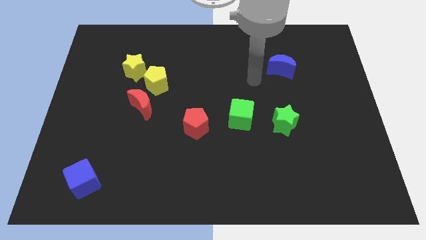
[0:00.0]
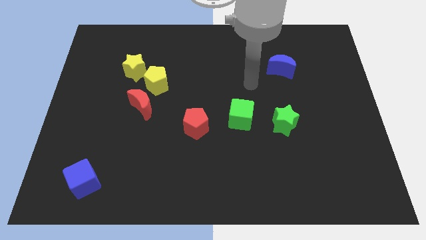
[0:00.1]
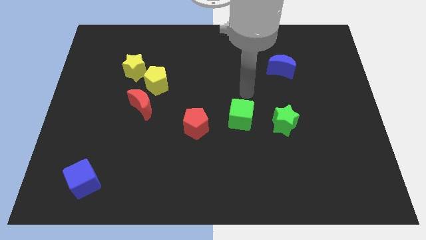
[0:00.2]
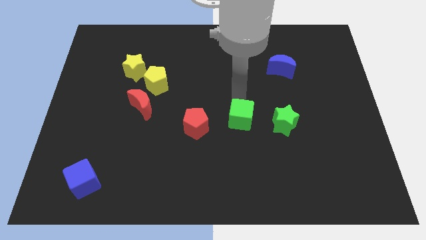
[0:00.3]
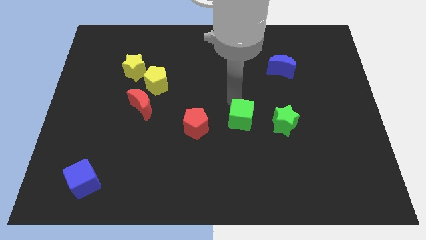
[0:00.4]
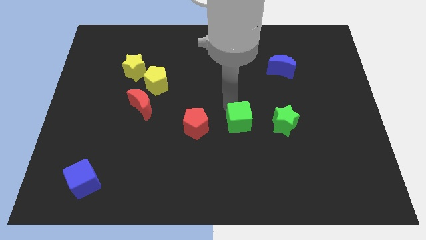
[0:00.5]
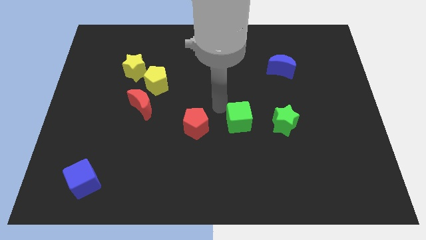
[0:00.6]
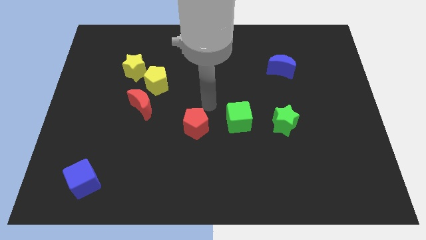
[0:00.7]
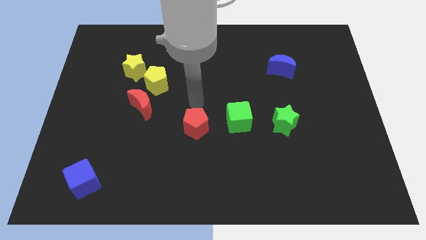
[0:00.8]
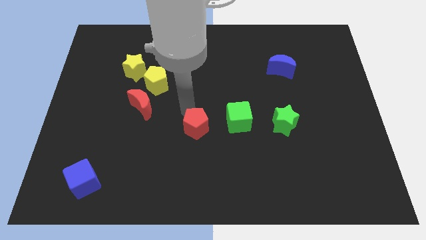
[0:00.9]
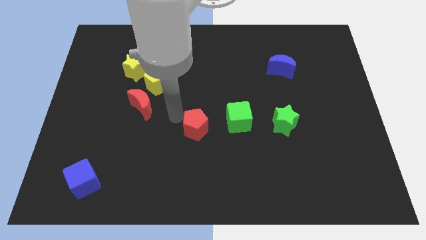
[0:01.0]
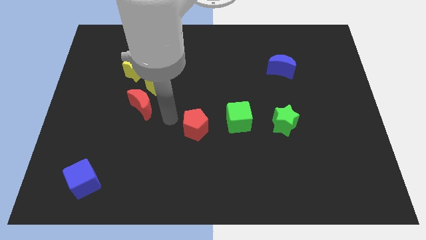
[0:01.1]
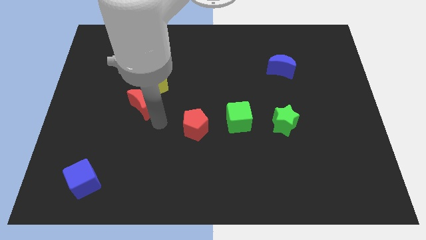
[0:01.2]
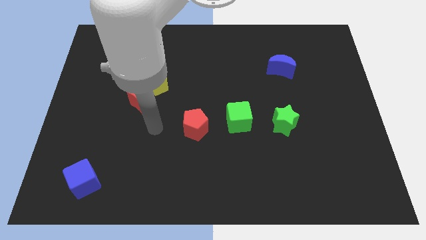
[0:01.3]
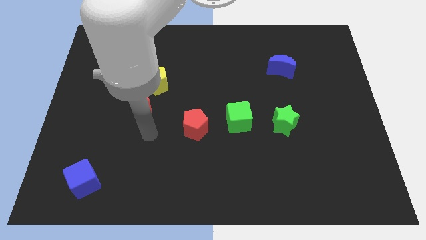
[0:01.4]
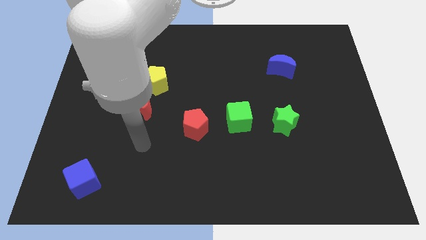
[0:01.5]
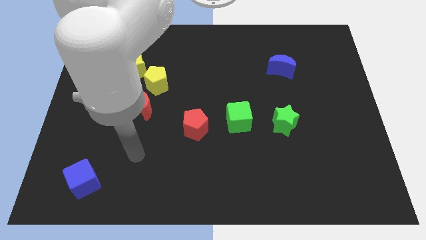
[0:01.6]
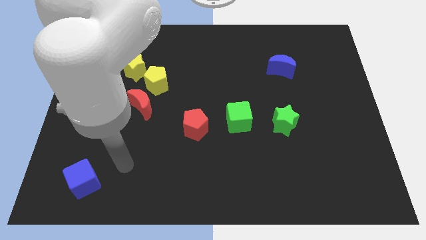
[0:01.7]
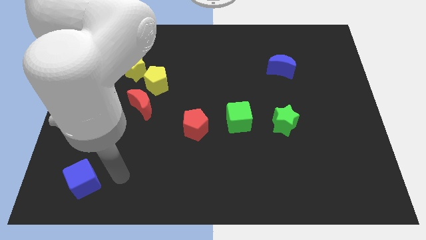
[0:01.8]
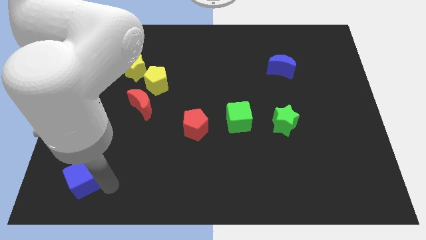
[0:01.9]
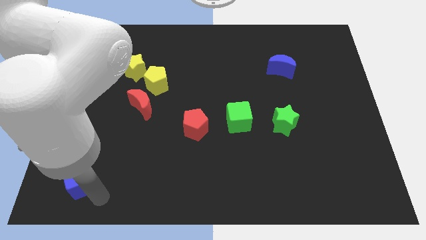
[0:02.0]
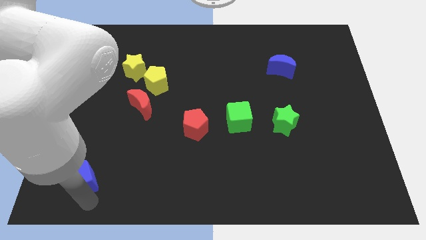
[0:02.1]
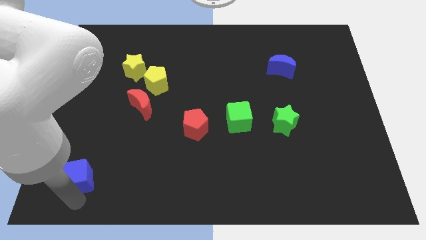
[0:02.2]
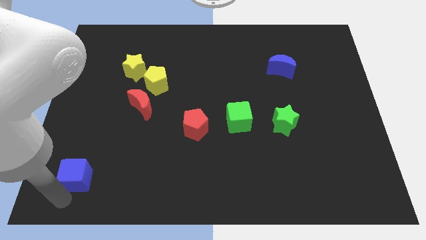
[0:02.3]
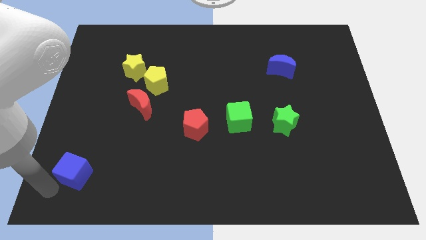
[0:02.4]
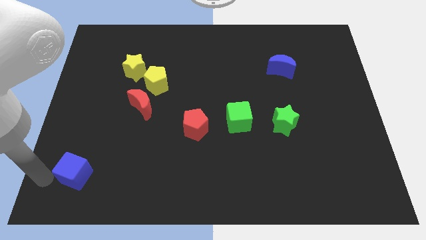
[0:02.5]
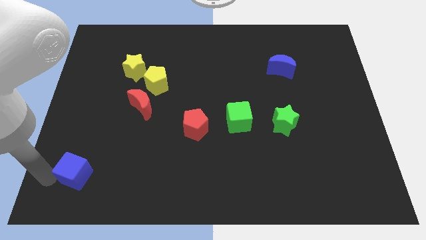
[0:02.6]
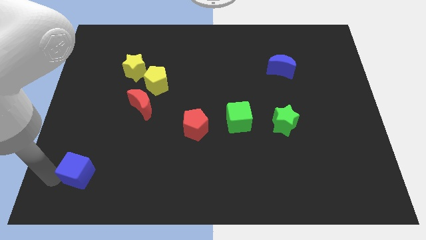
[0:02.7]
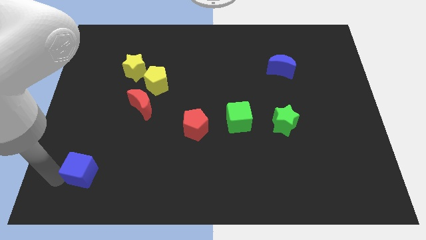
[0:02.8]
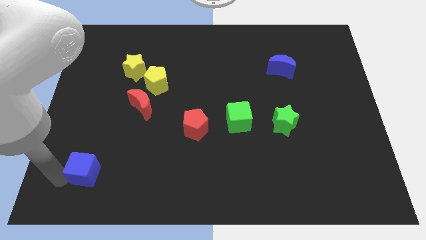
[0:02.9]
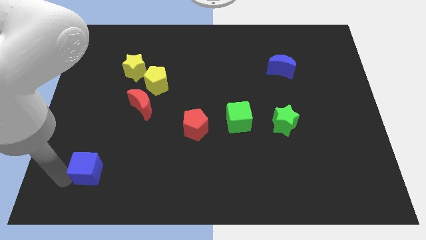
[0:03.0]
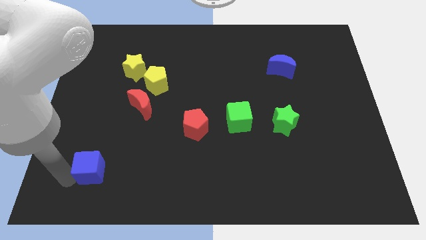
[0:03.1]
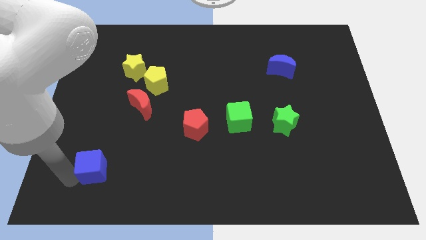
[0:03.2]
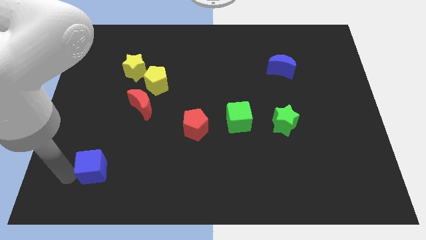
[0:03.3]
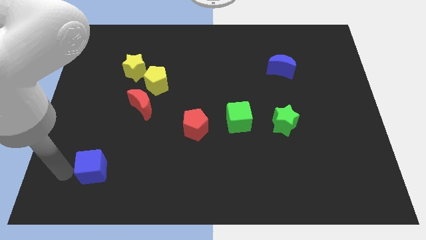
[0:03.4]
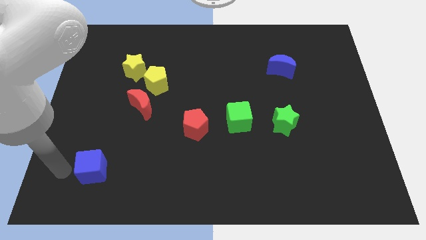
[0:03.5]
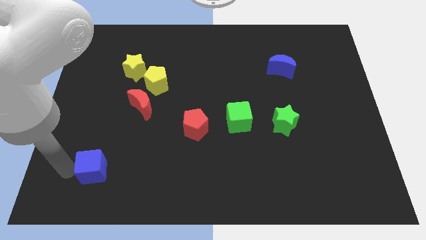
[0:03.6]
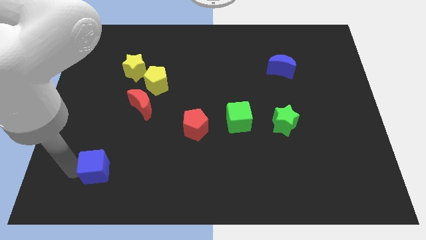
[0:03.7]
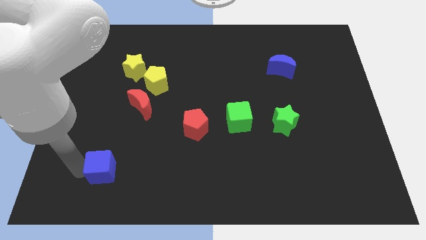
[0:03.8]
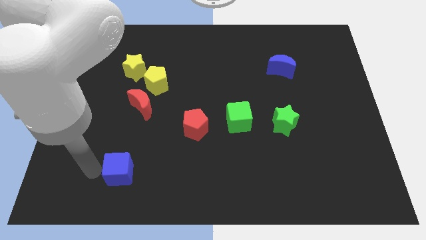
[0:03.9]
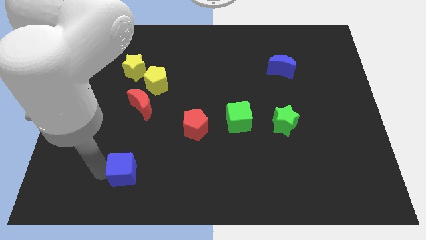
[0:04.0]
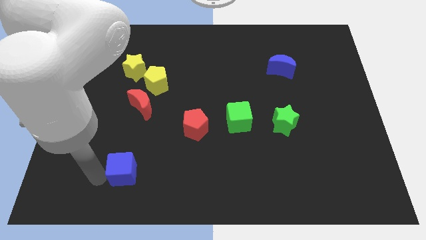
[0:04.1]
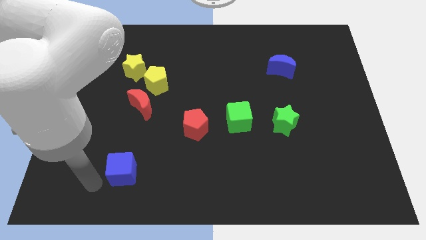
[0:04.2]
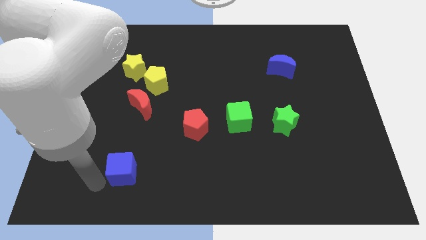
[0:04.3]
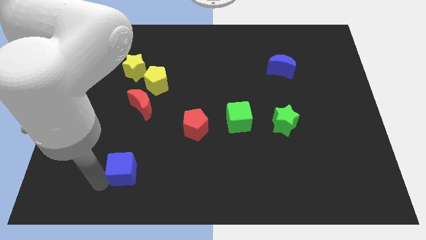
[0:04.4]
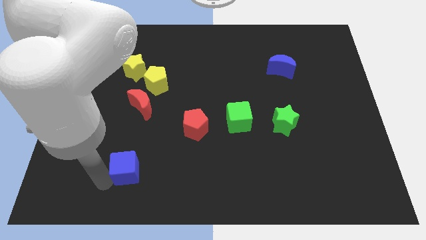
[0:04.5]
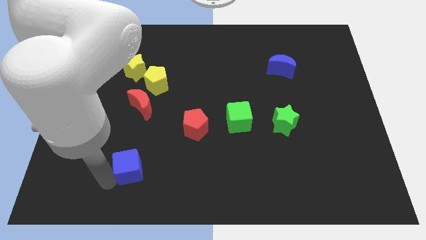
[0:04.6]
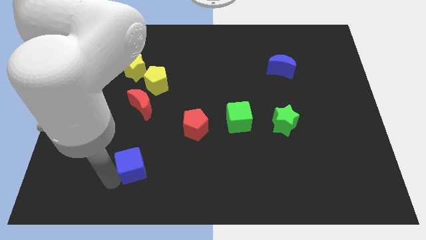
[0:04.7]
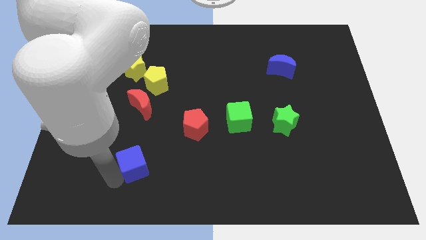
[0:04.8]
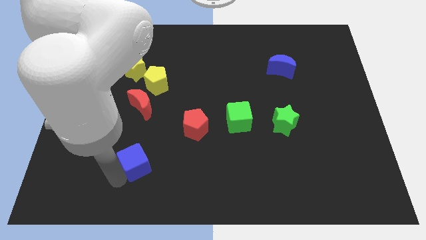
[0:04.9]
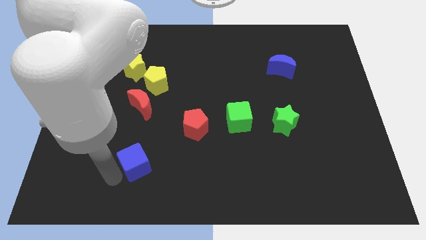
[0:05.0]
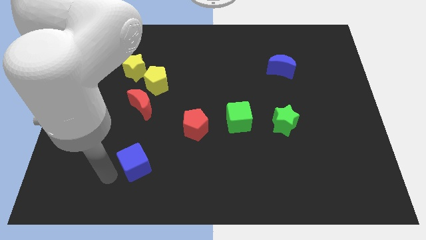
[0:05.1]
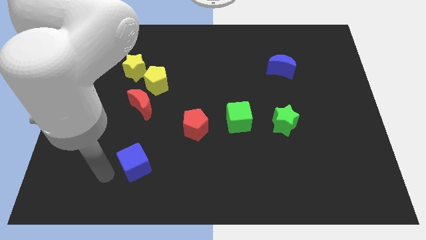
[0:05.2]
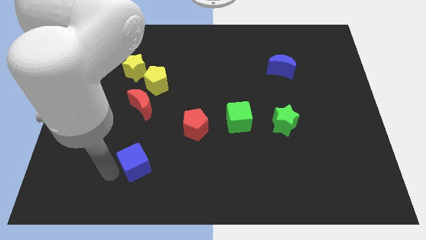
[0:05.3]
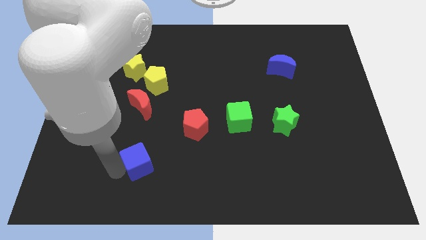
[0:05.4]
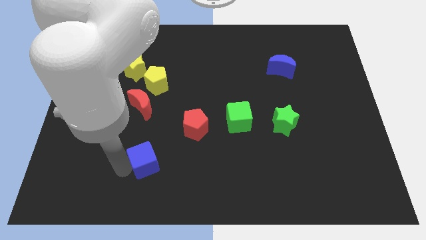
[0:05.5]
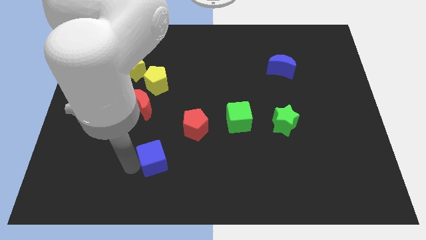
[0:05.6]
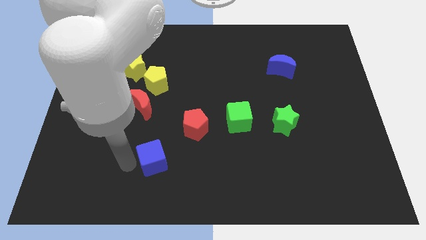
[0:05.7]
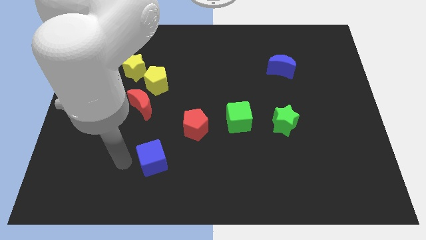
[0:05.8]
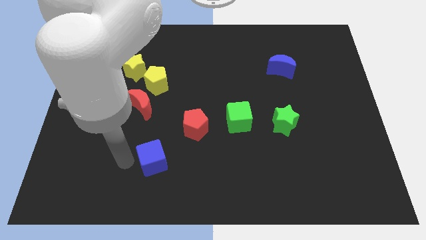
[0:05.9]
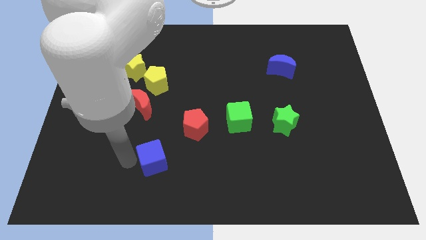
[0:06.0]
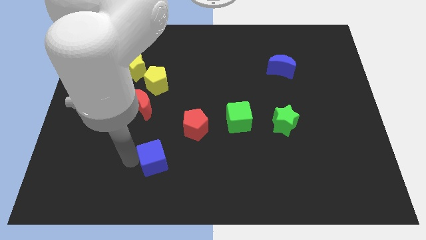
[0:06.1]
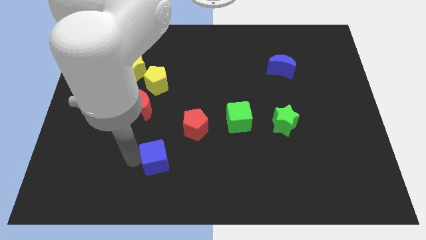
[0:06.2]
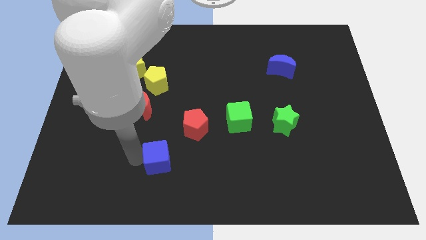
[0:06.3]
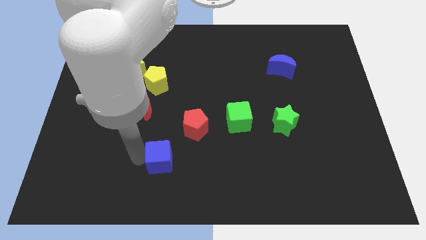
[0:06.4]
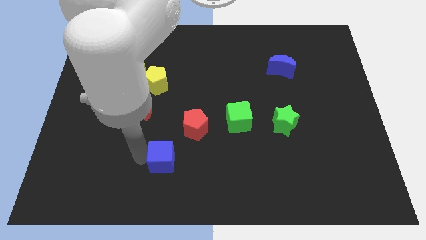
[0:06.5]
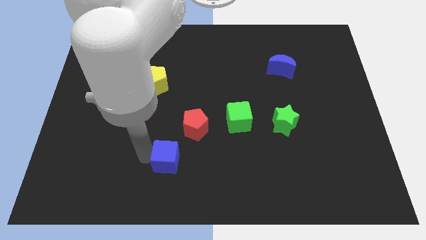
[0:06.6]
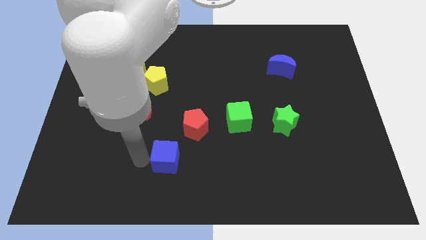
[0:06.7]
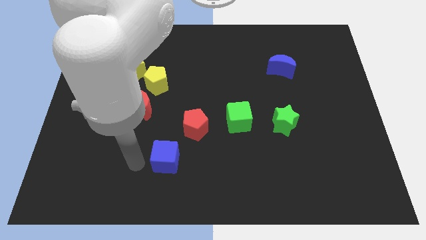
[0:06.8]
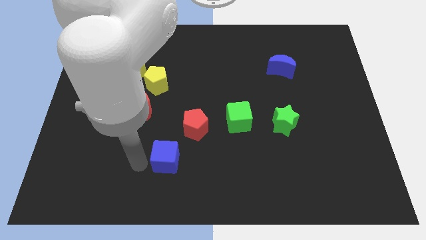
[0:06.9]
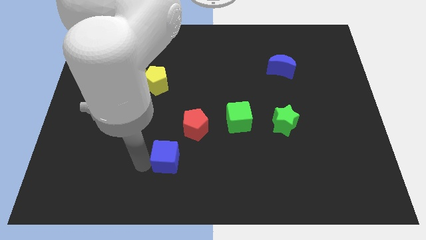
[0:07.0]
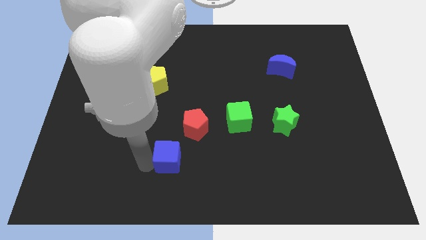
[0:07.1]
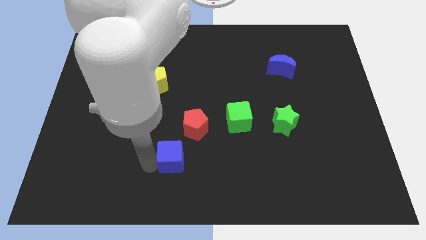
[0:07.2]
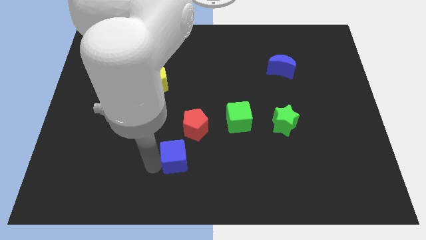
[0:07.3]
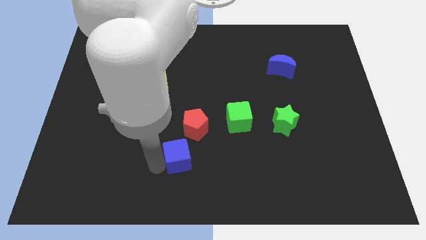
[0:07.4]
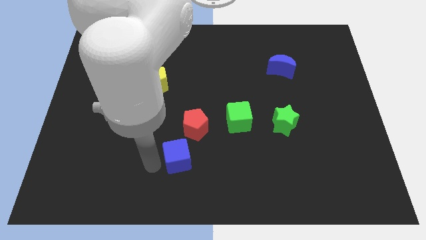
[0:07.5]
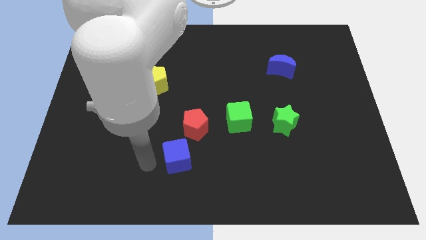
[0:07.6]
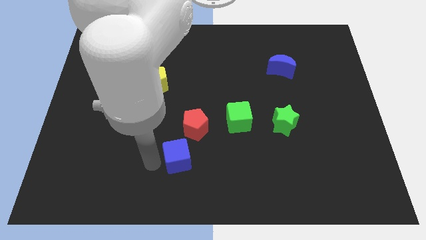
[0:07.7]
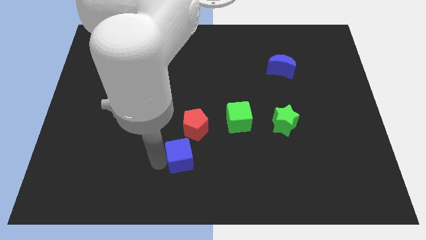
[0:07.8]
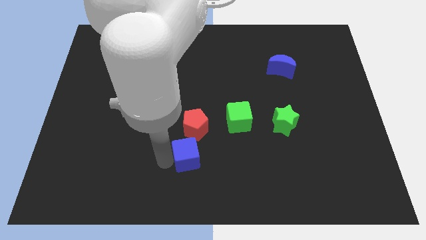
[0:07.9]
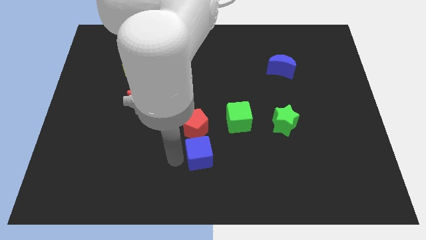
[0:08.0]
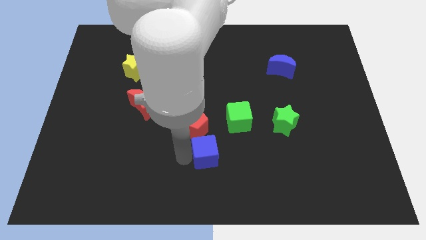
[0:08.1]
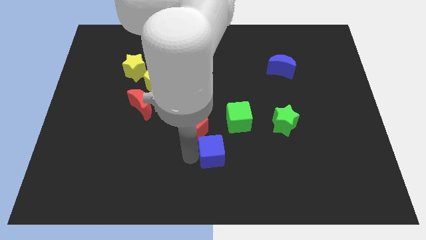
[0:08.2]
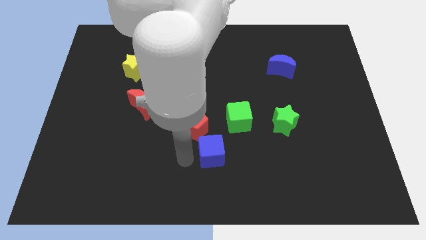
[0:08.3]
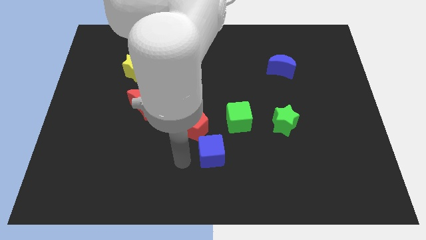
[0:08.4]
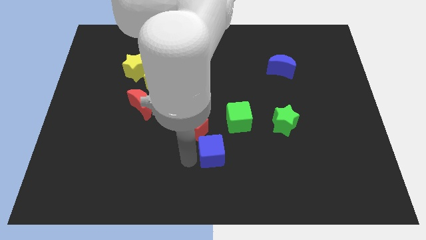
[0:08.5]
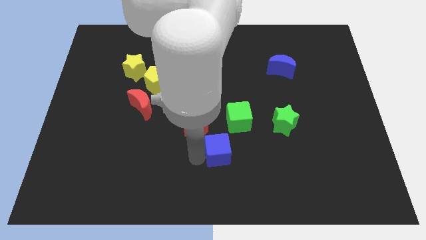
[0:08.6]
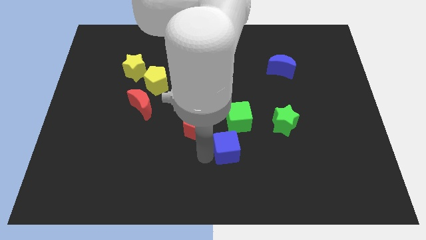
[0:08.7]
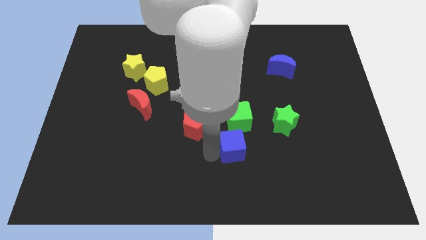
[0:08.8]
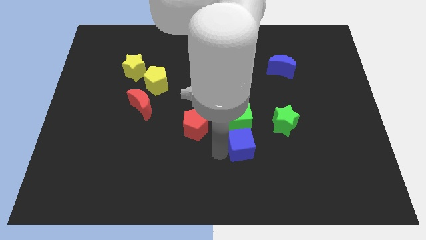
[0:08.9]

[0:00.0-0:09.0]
push the blue cube to the bottom right of the green cube
